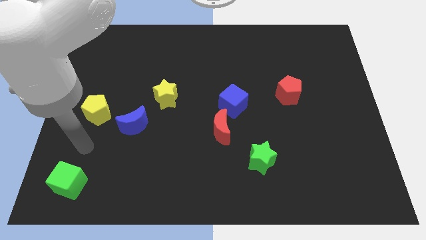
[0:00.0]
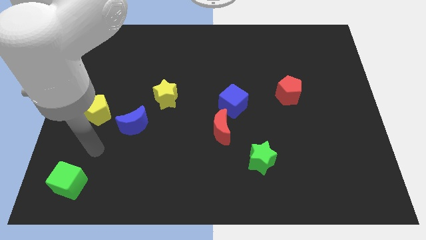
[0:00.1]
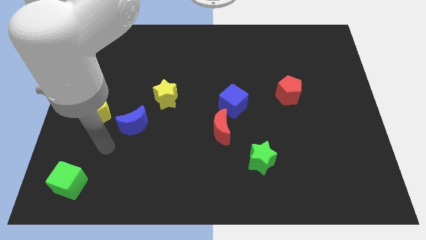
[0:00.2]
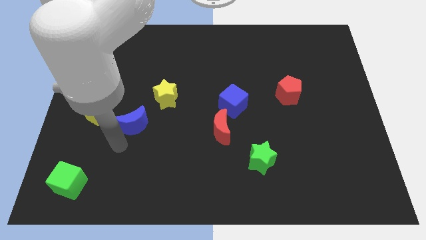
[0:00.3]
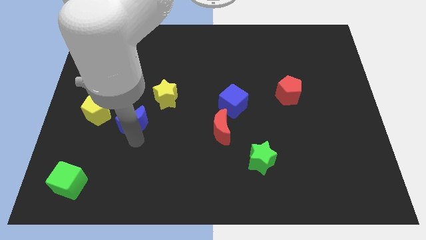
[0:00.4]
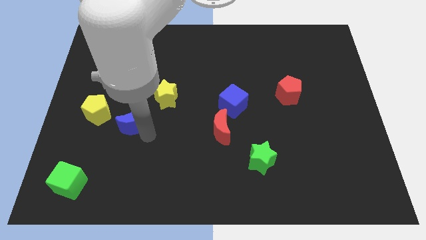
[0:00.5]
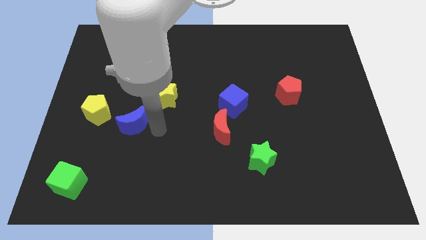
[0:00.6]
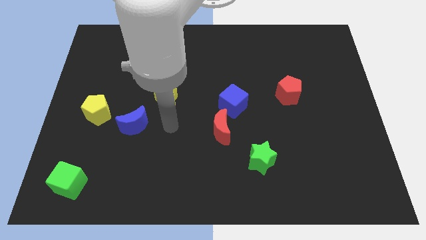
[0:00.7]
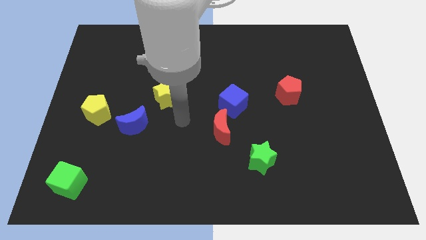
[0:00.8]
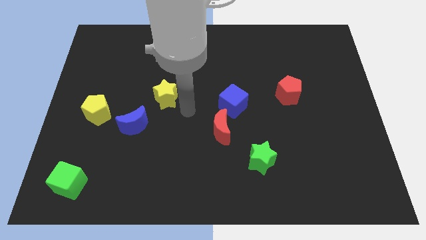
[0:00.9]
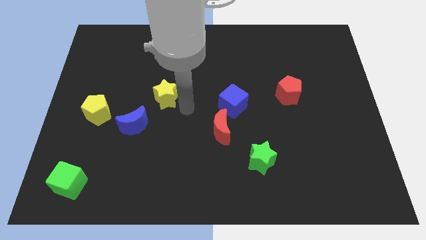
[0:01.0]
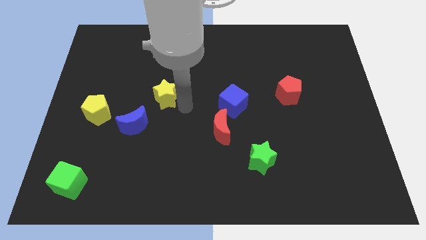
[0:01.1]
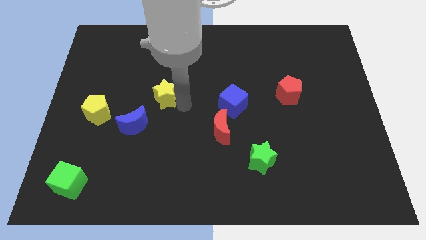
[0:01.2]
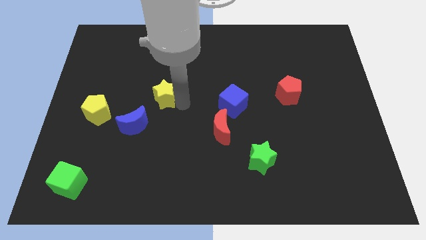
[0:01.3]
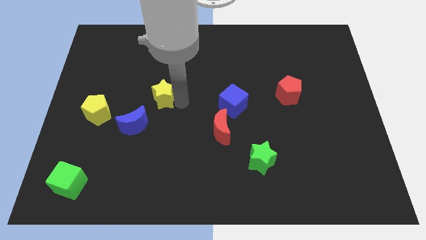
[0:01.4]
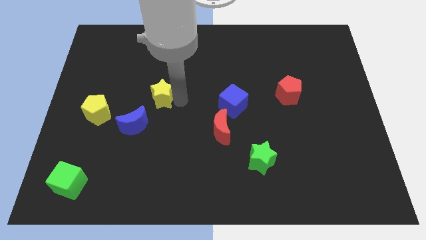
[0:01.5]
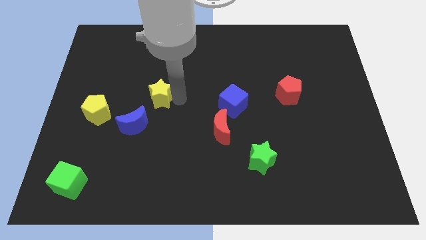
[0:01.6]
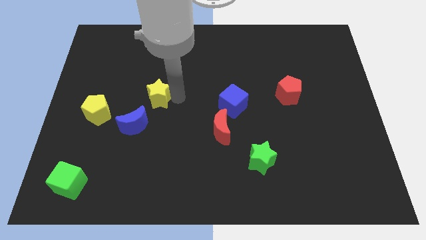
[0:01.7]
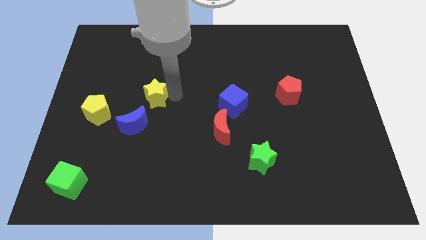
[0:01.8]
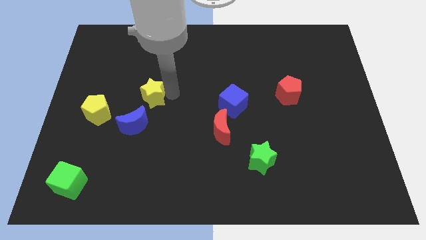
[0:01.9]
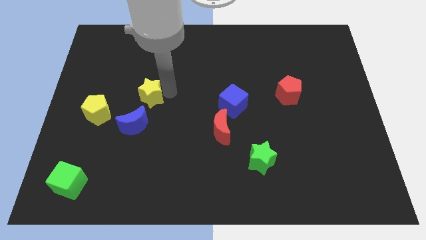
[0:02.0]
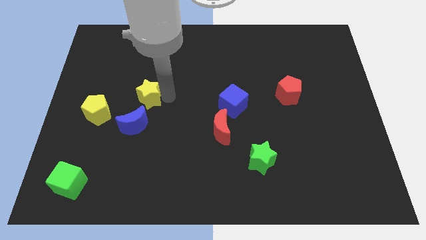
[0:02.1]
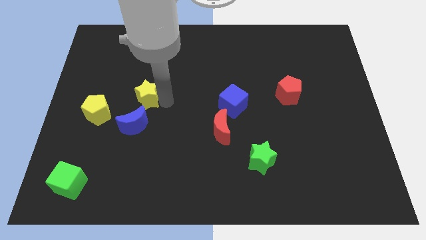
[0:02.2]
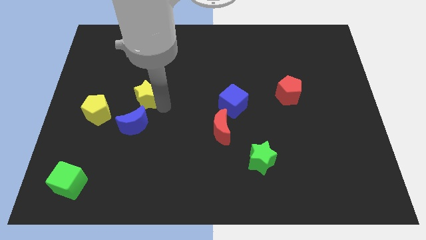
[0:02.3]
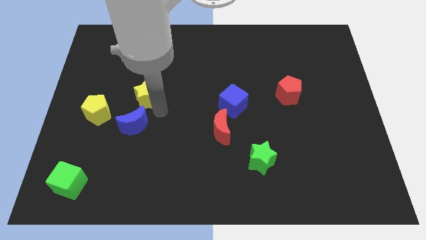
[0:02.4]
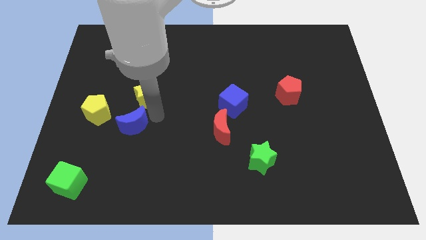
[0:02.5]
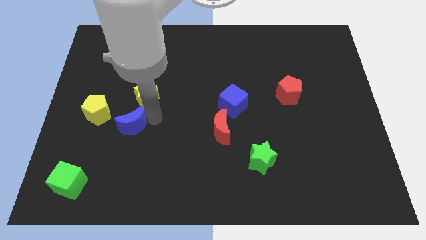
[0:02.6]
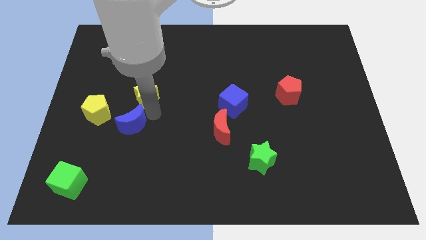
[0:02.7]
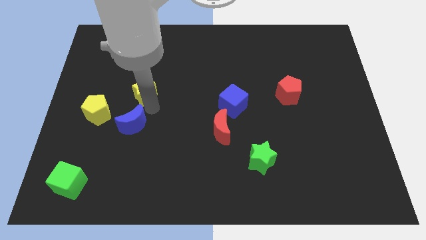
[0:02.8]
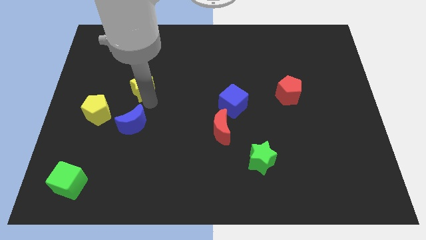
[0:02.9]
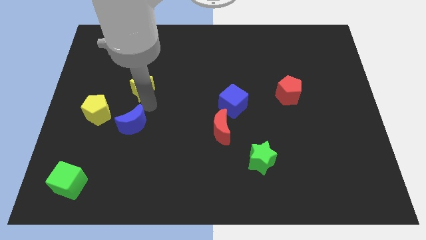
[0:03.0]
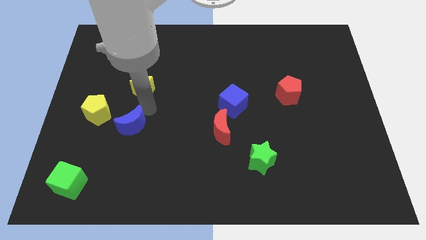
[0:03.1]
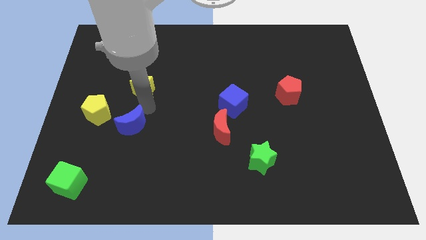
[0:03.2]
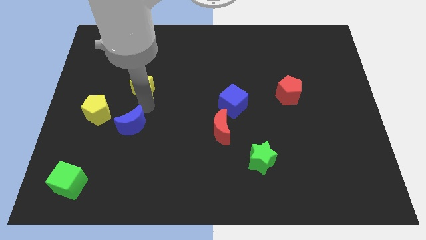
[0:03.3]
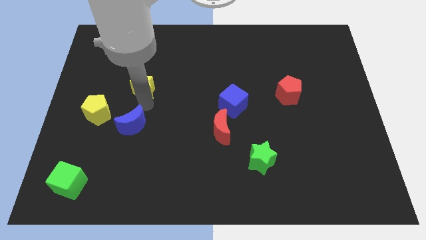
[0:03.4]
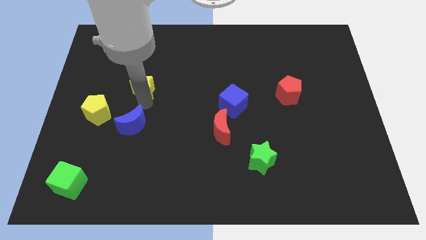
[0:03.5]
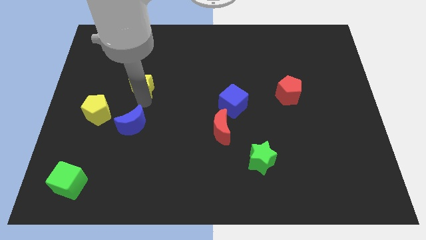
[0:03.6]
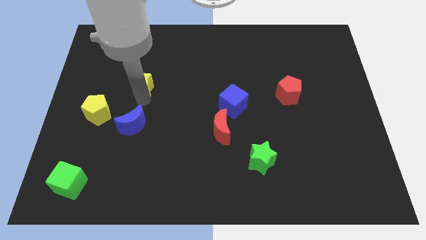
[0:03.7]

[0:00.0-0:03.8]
move the yellow star slightly diagonally upwards and left

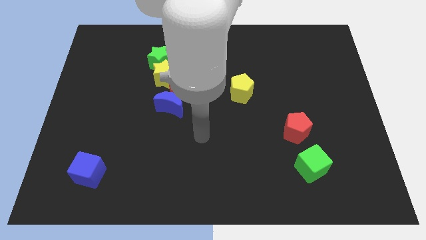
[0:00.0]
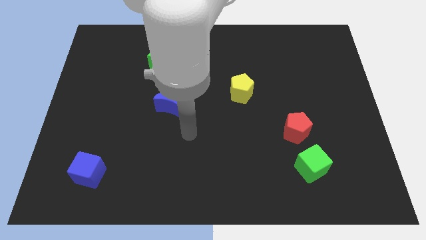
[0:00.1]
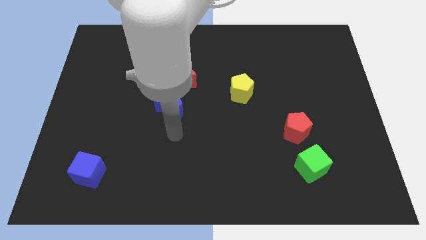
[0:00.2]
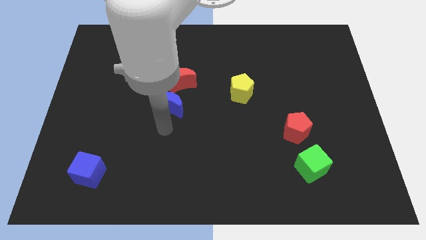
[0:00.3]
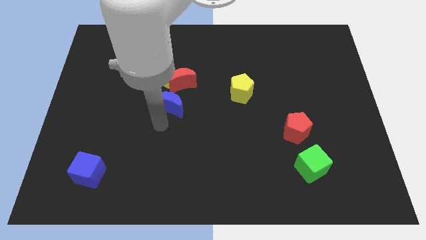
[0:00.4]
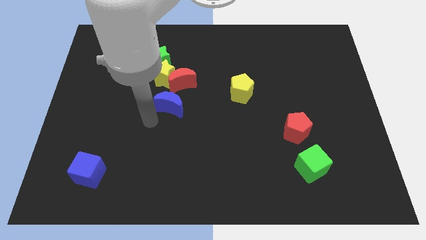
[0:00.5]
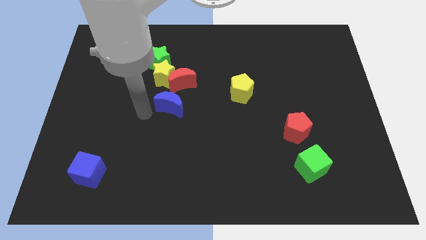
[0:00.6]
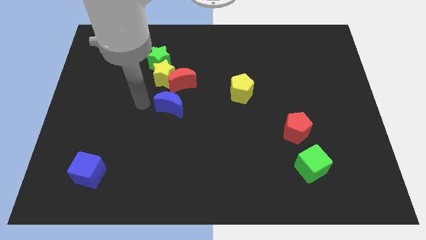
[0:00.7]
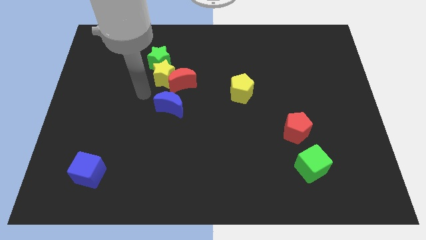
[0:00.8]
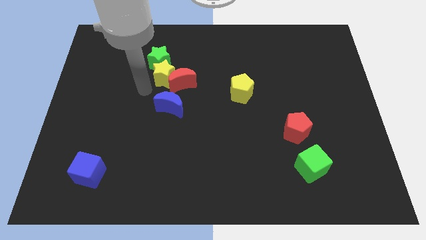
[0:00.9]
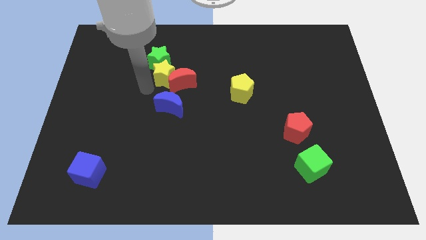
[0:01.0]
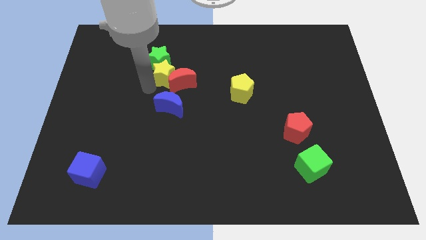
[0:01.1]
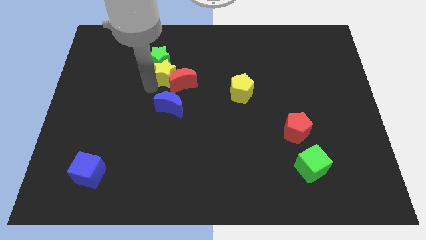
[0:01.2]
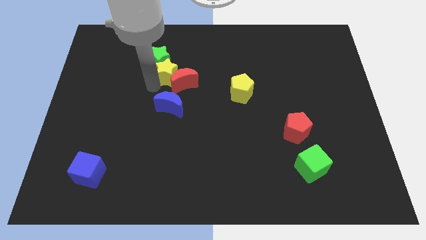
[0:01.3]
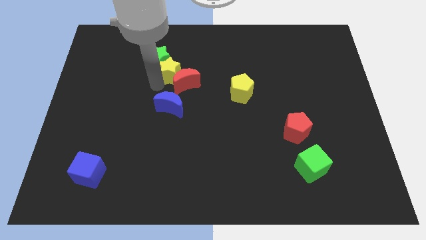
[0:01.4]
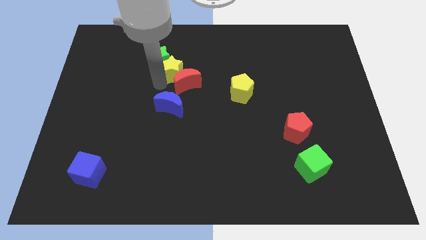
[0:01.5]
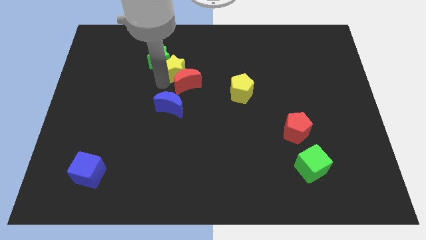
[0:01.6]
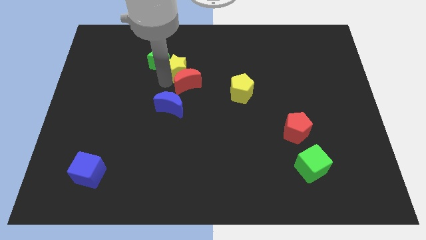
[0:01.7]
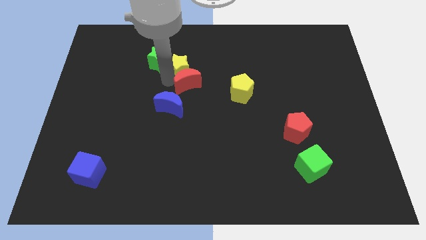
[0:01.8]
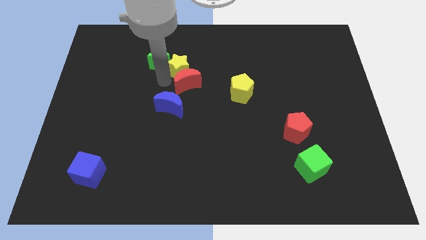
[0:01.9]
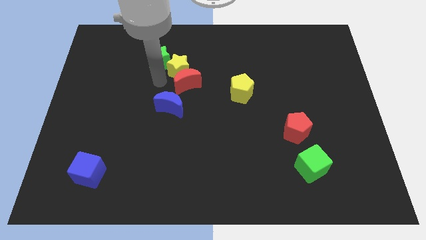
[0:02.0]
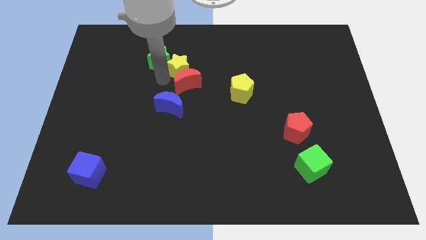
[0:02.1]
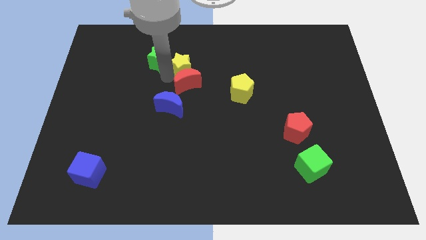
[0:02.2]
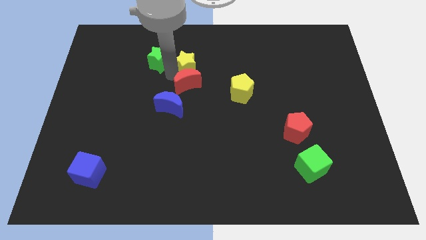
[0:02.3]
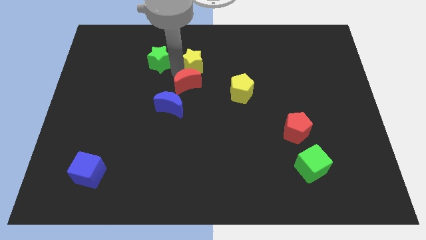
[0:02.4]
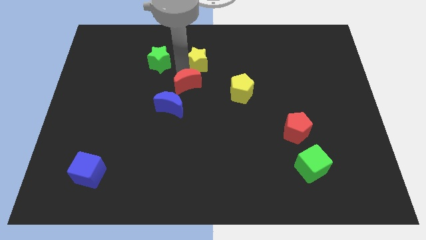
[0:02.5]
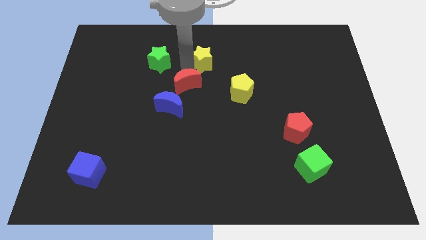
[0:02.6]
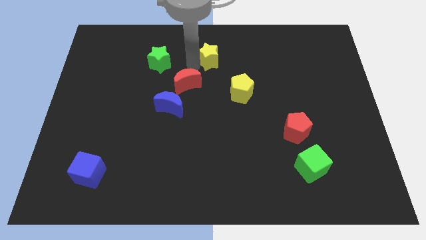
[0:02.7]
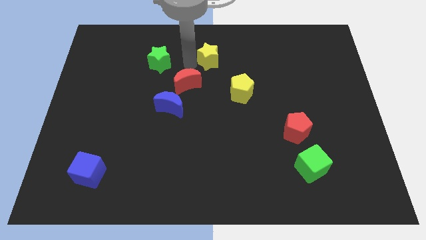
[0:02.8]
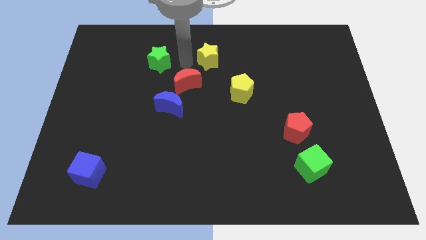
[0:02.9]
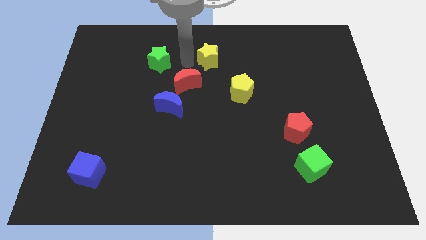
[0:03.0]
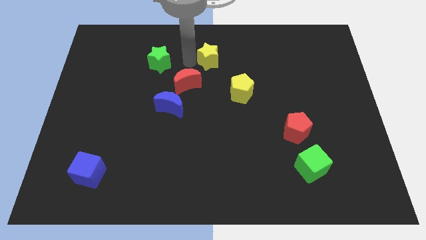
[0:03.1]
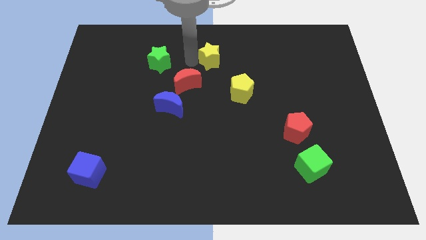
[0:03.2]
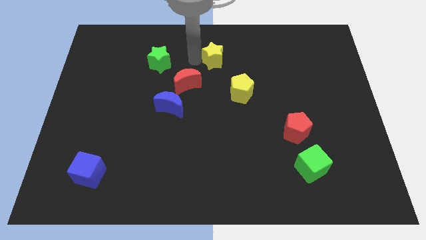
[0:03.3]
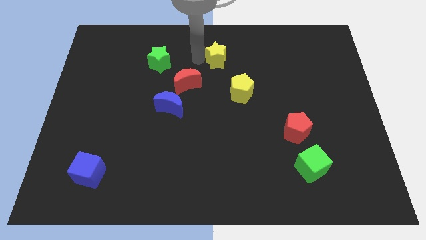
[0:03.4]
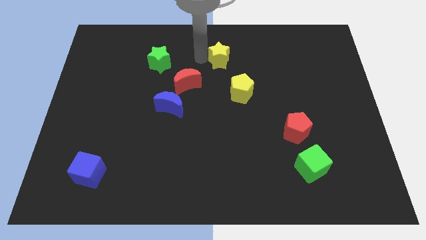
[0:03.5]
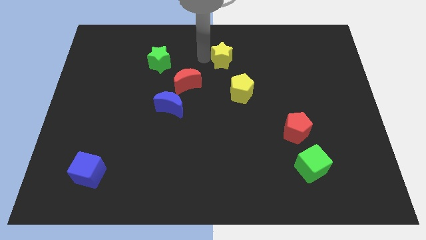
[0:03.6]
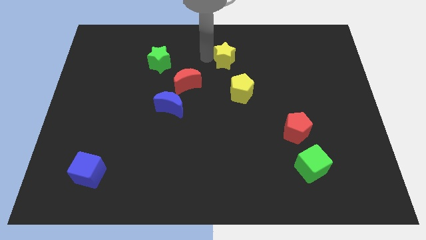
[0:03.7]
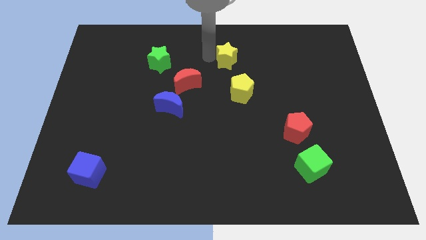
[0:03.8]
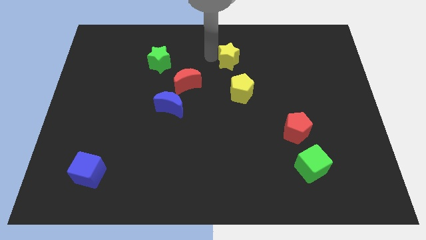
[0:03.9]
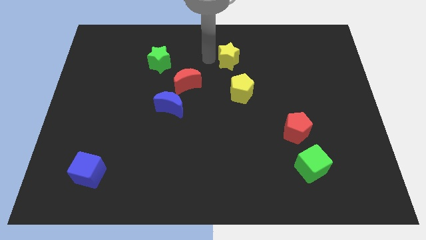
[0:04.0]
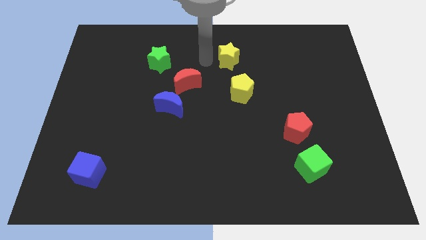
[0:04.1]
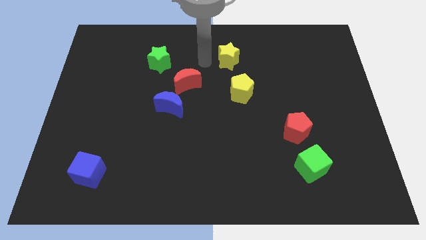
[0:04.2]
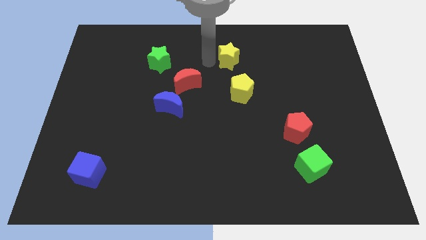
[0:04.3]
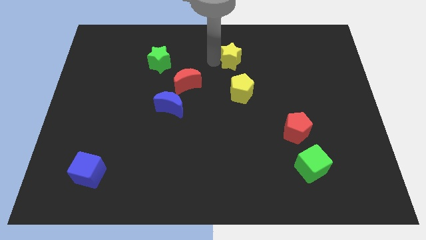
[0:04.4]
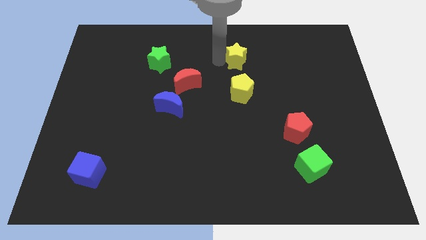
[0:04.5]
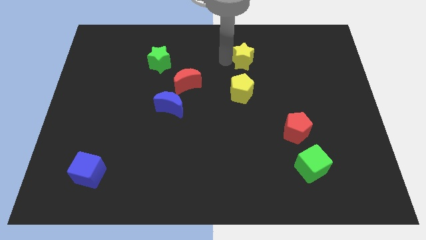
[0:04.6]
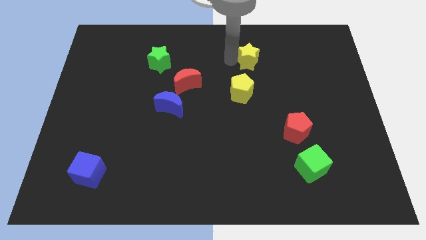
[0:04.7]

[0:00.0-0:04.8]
move the yellow star right
